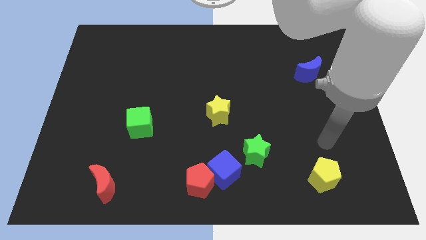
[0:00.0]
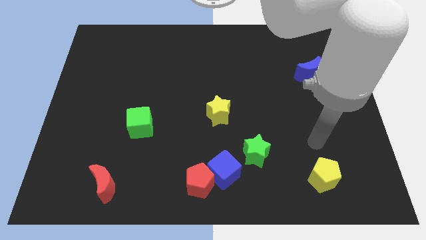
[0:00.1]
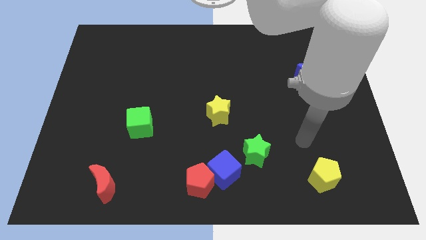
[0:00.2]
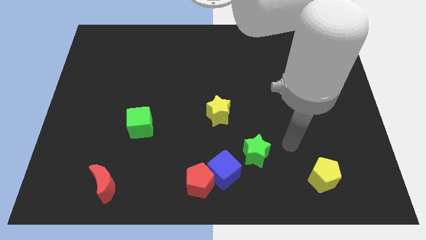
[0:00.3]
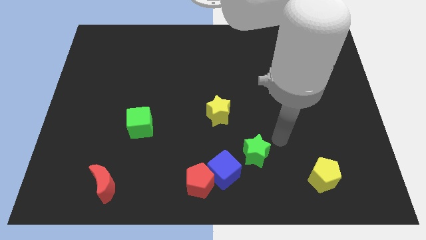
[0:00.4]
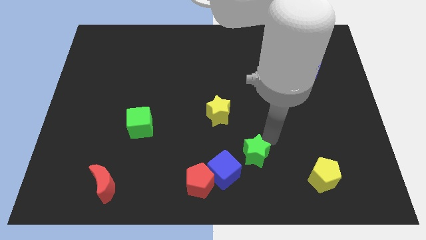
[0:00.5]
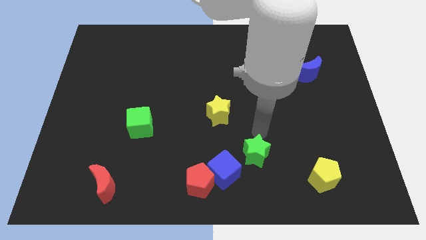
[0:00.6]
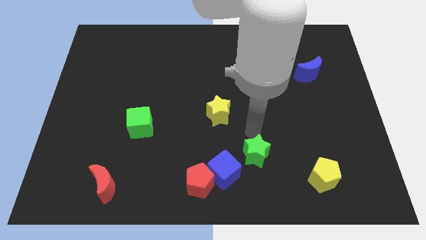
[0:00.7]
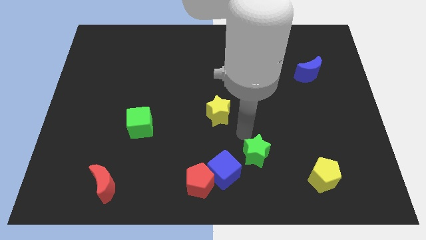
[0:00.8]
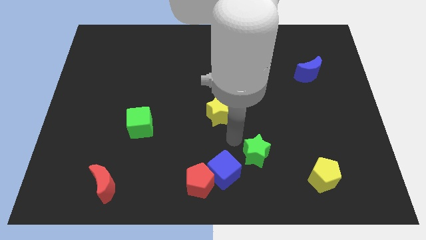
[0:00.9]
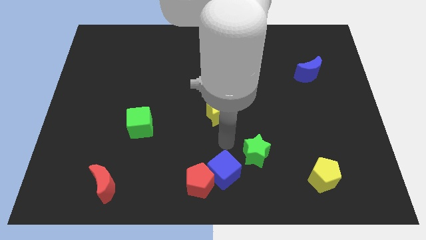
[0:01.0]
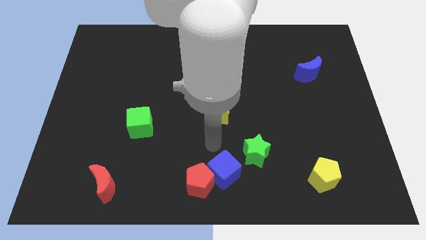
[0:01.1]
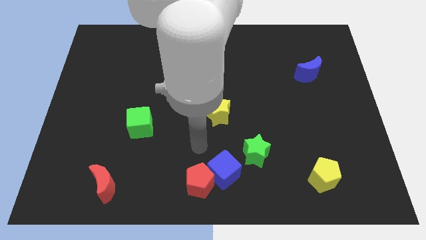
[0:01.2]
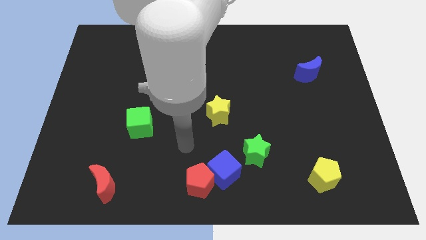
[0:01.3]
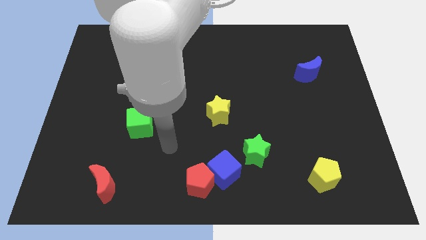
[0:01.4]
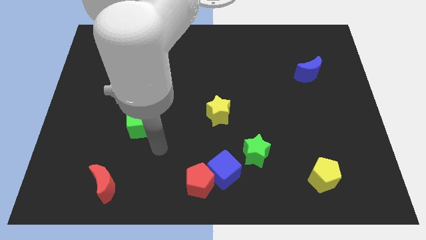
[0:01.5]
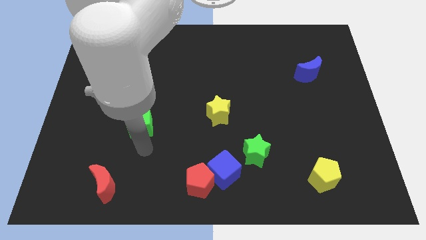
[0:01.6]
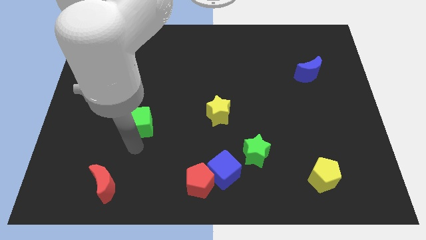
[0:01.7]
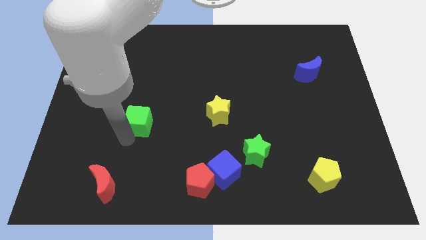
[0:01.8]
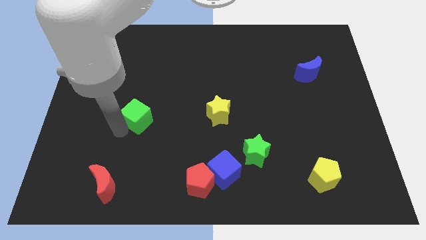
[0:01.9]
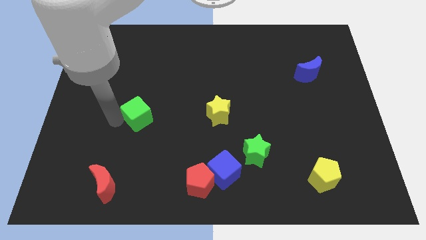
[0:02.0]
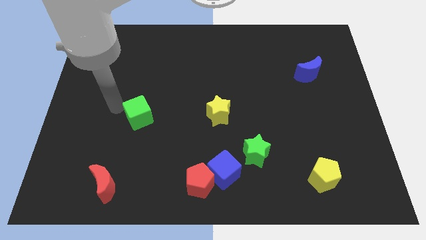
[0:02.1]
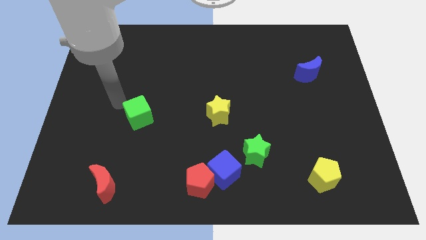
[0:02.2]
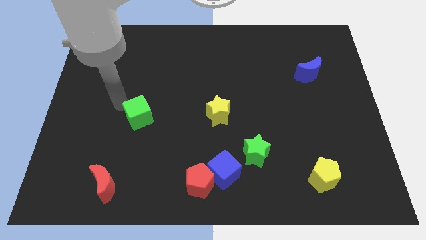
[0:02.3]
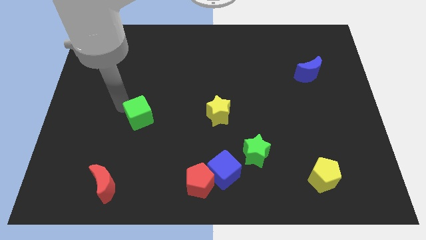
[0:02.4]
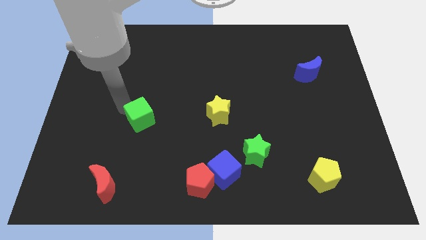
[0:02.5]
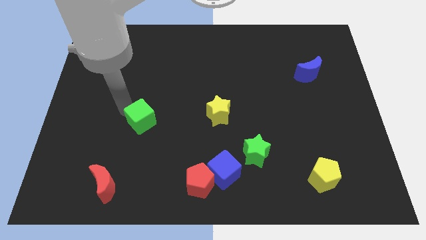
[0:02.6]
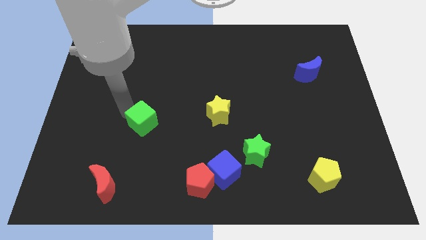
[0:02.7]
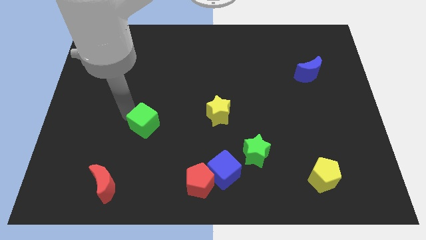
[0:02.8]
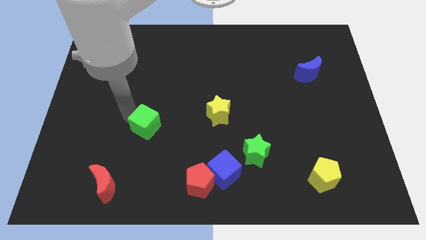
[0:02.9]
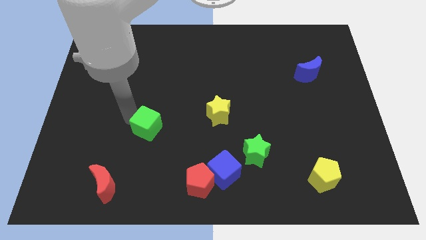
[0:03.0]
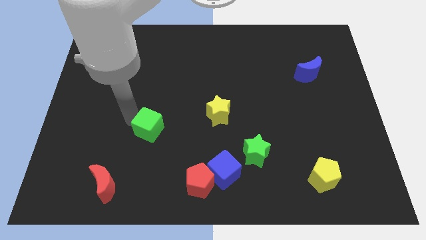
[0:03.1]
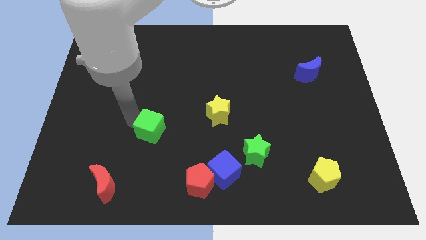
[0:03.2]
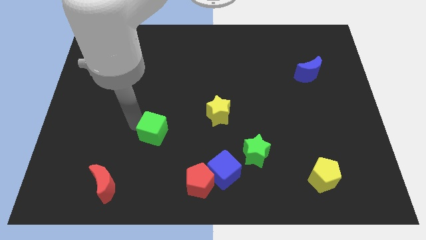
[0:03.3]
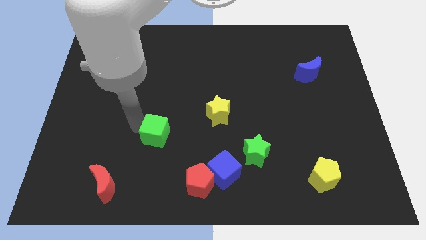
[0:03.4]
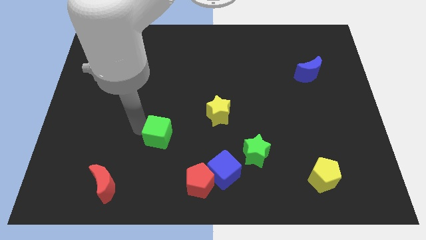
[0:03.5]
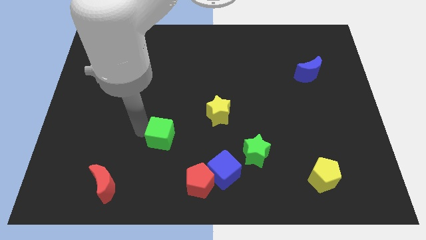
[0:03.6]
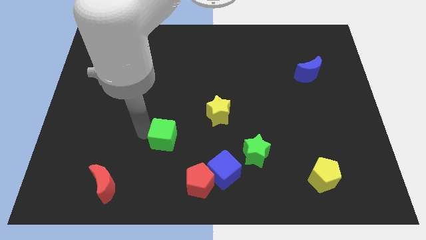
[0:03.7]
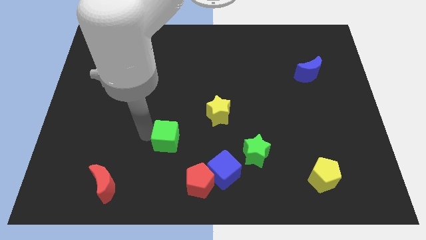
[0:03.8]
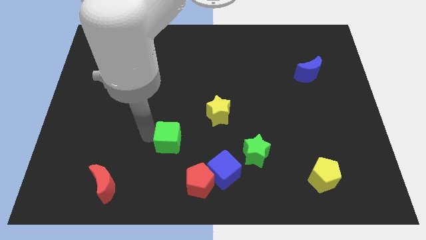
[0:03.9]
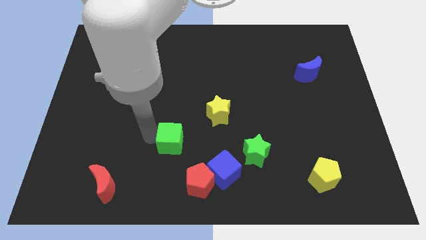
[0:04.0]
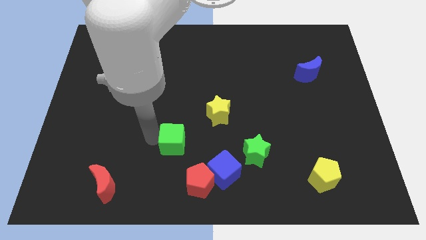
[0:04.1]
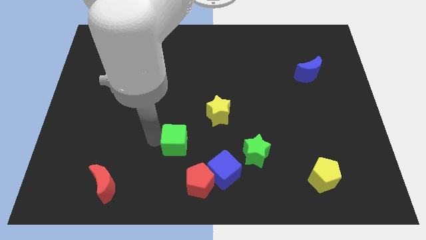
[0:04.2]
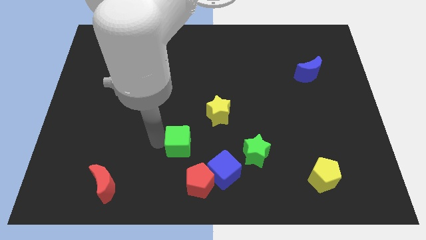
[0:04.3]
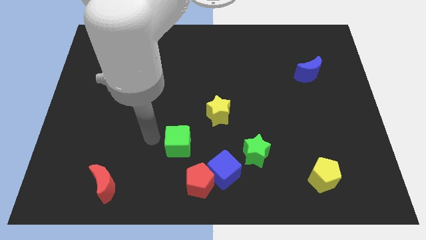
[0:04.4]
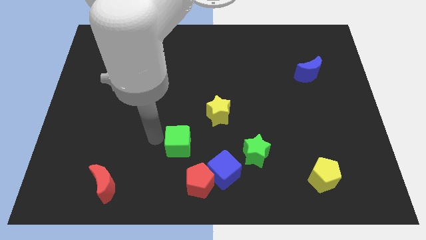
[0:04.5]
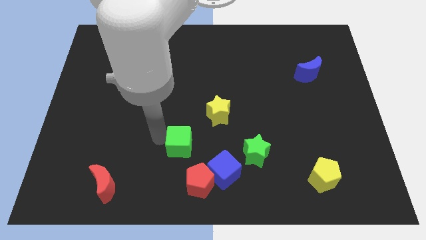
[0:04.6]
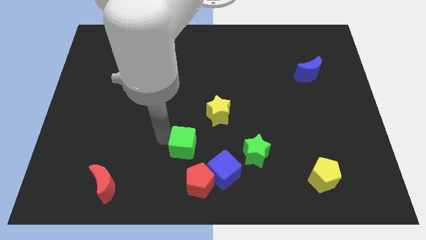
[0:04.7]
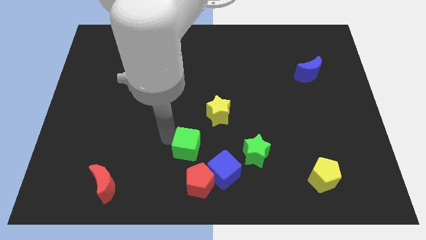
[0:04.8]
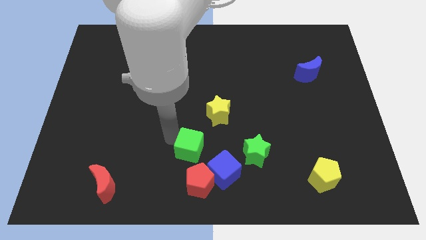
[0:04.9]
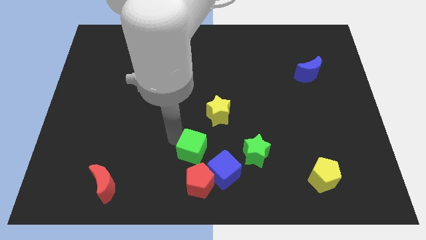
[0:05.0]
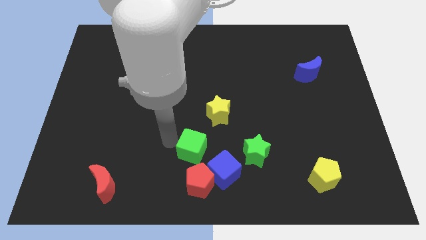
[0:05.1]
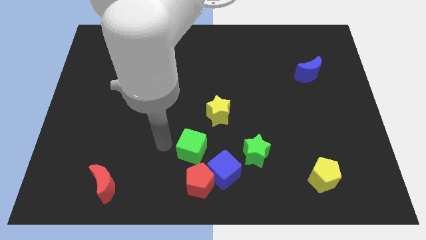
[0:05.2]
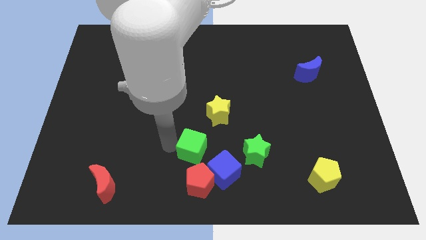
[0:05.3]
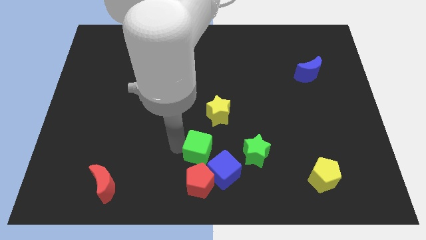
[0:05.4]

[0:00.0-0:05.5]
push the green cube below the yellow star

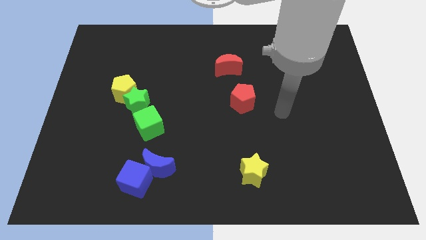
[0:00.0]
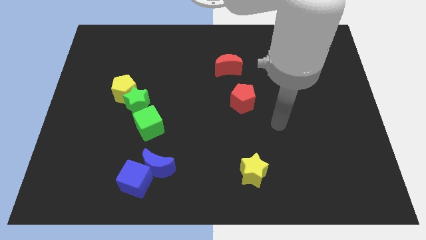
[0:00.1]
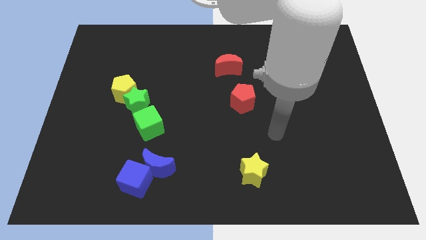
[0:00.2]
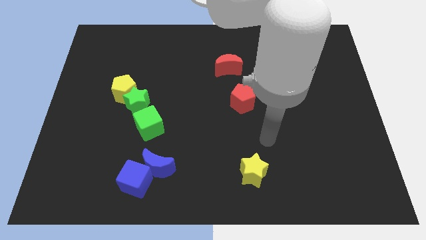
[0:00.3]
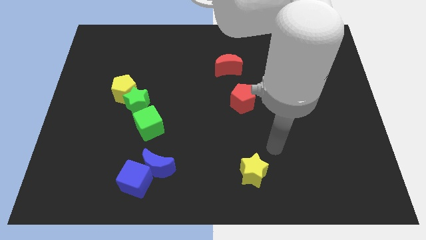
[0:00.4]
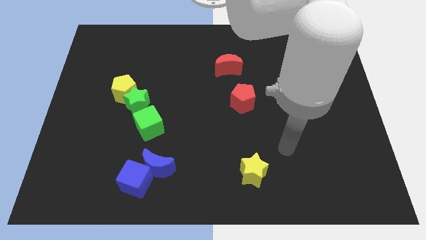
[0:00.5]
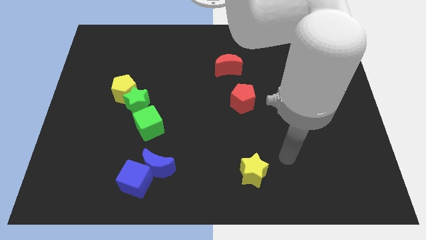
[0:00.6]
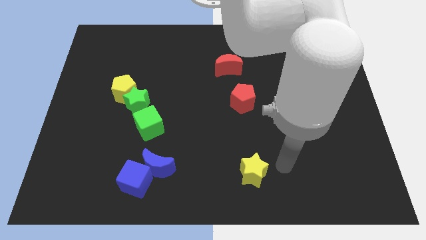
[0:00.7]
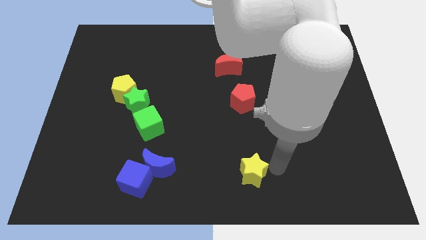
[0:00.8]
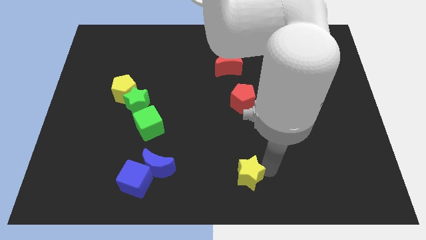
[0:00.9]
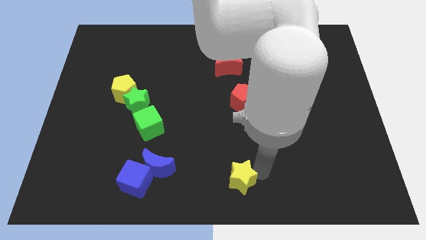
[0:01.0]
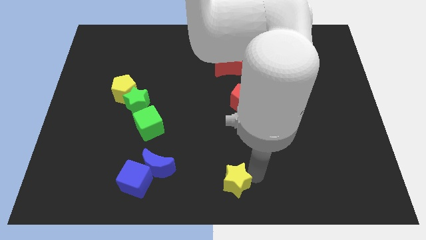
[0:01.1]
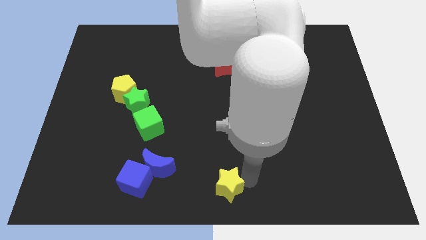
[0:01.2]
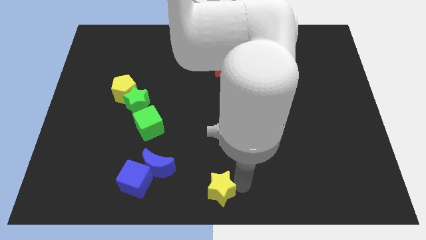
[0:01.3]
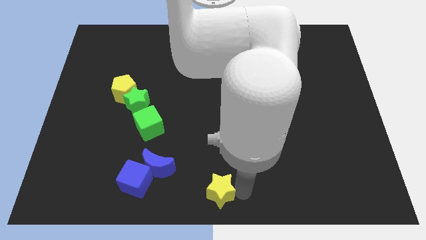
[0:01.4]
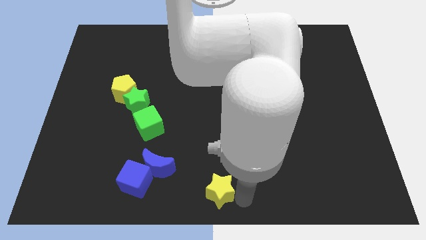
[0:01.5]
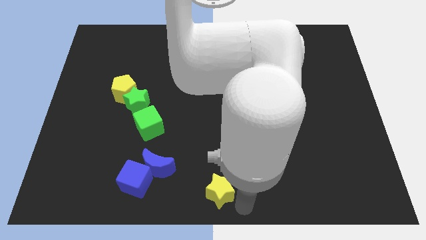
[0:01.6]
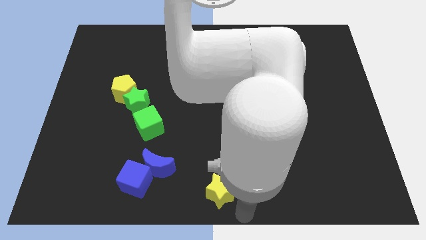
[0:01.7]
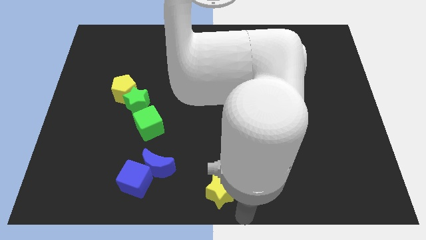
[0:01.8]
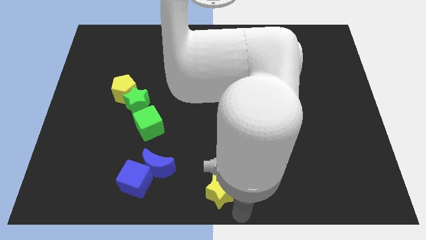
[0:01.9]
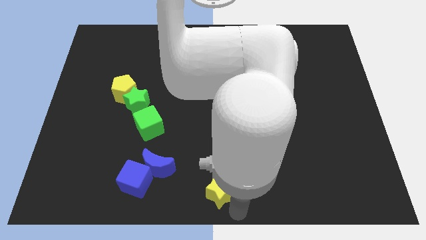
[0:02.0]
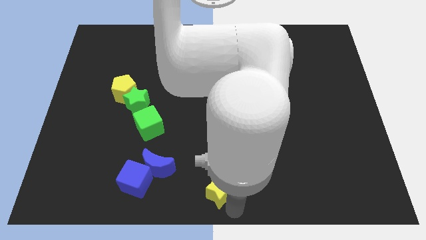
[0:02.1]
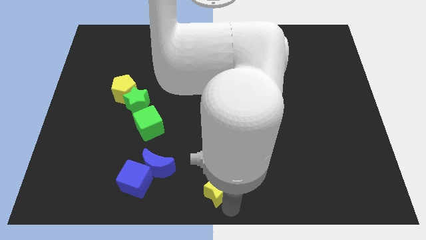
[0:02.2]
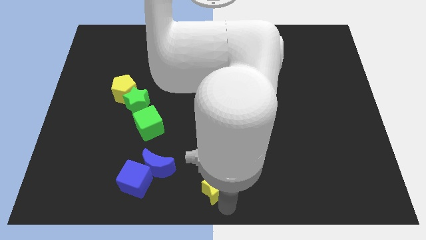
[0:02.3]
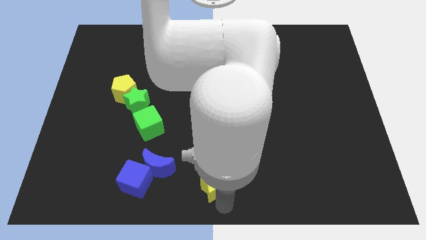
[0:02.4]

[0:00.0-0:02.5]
move the yellow star to the right of the blue cube
